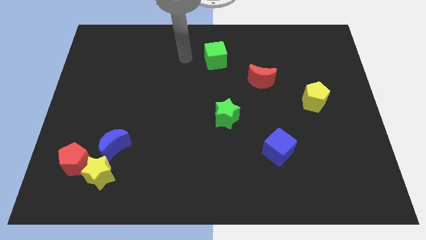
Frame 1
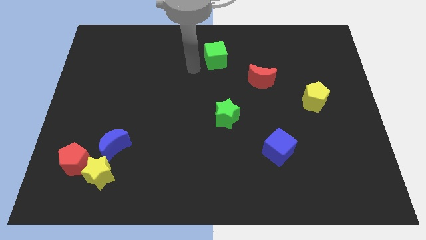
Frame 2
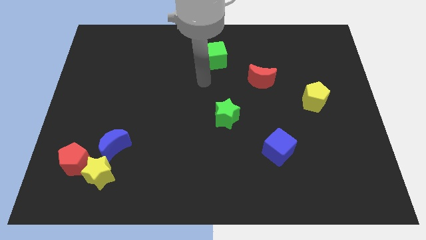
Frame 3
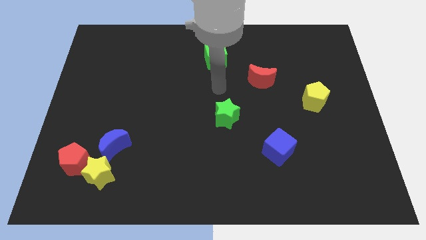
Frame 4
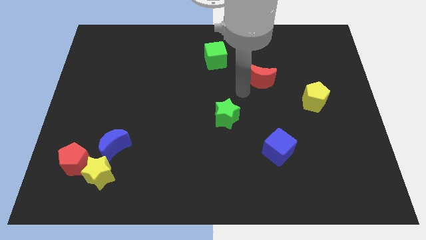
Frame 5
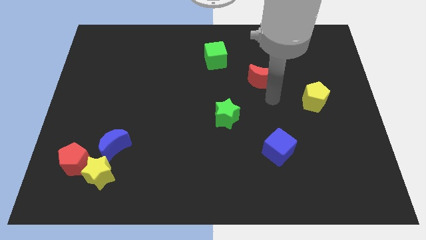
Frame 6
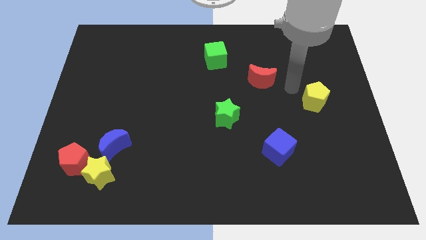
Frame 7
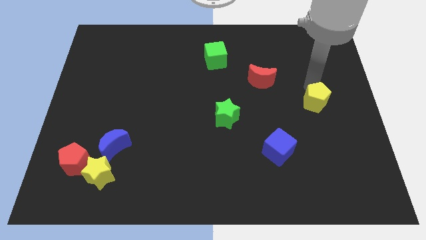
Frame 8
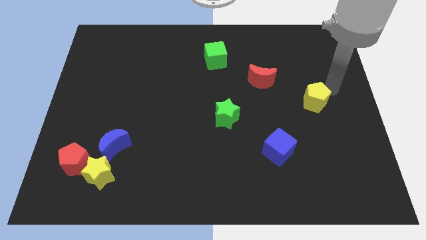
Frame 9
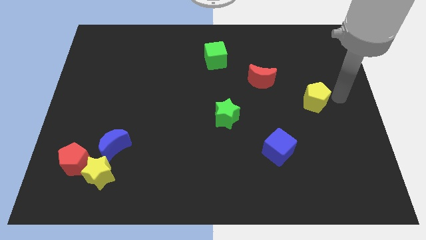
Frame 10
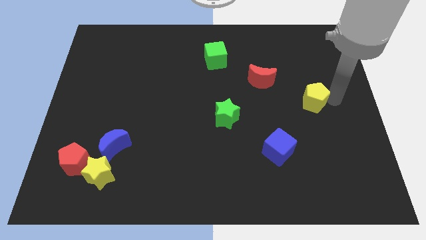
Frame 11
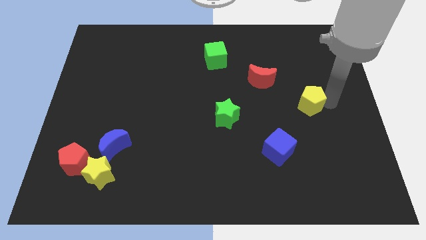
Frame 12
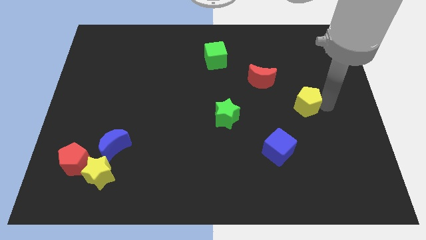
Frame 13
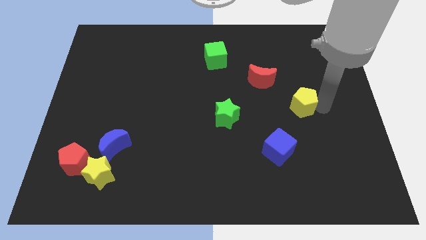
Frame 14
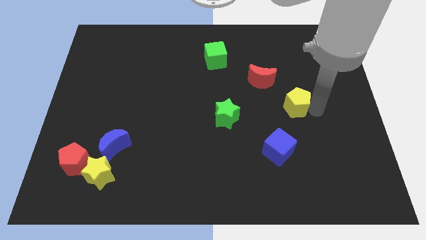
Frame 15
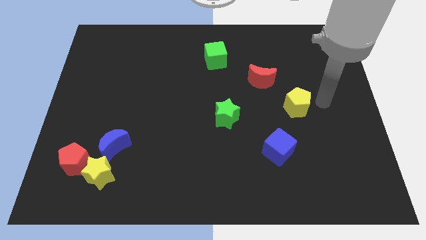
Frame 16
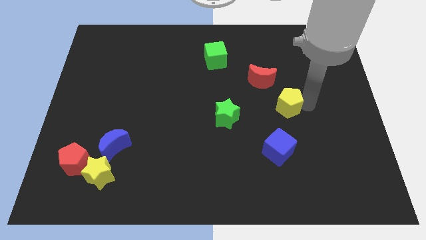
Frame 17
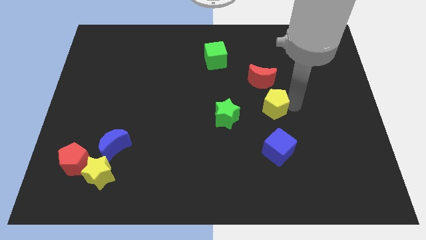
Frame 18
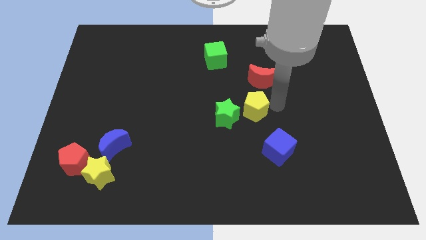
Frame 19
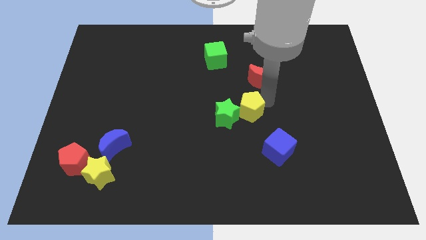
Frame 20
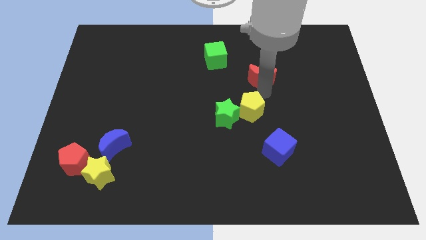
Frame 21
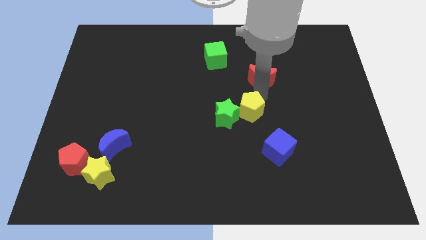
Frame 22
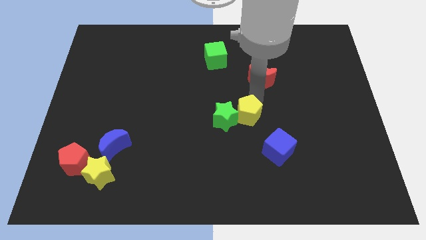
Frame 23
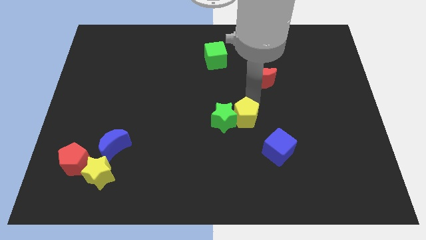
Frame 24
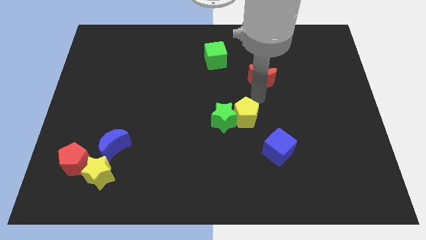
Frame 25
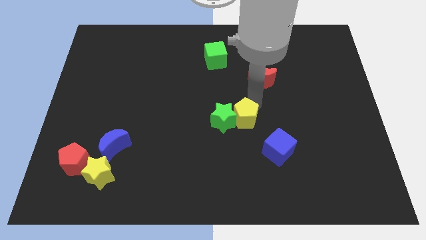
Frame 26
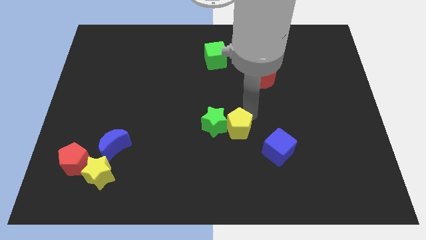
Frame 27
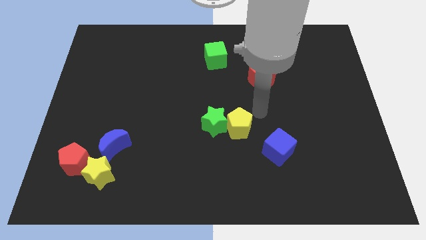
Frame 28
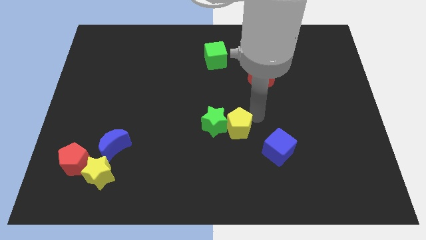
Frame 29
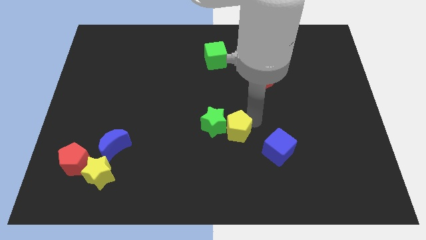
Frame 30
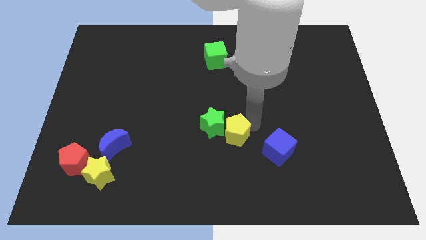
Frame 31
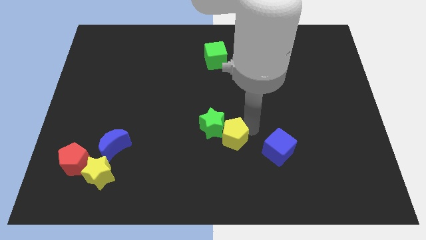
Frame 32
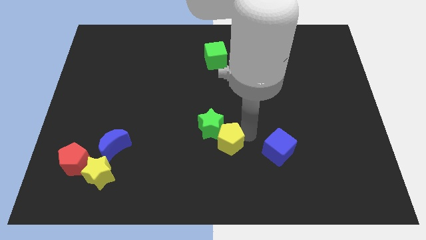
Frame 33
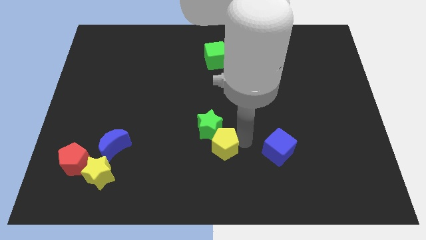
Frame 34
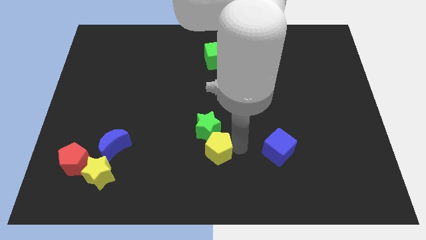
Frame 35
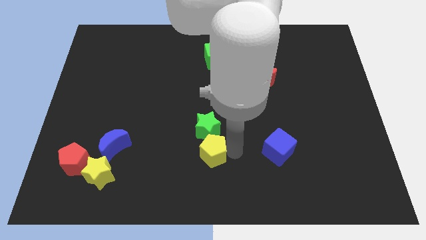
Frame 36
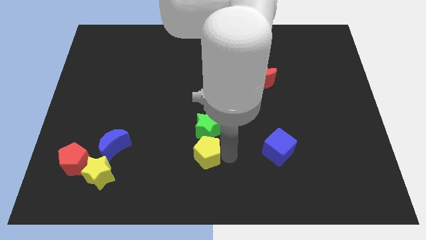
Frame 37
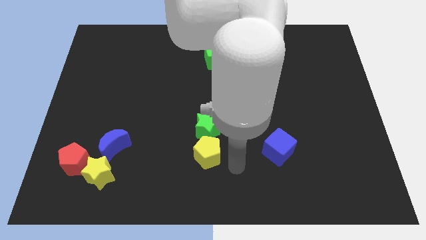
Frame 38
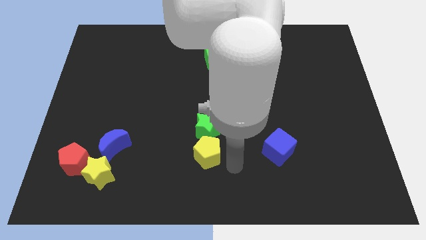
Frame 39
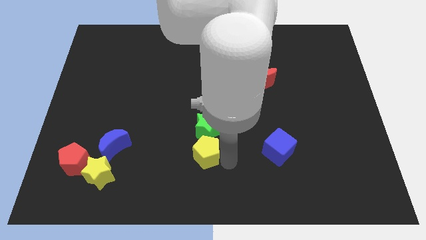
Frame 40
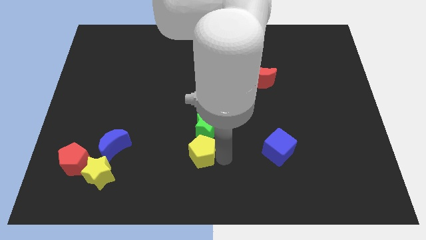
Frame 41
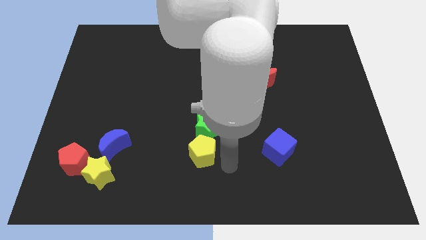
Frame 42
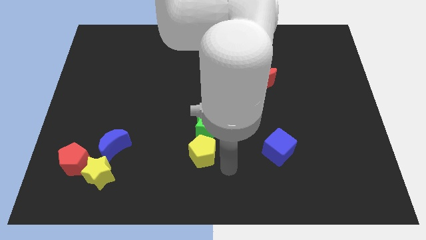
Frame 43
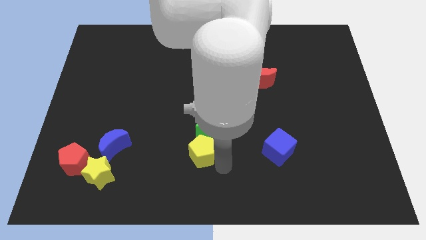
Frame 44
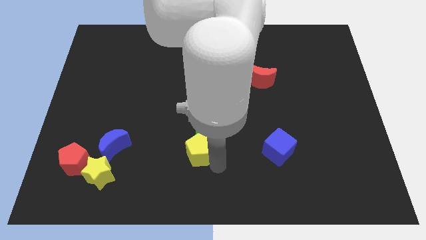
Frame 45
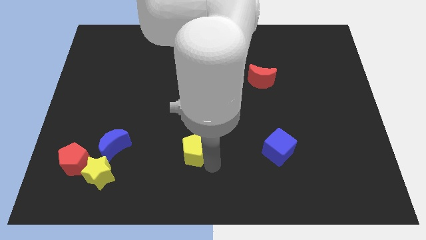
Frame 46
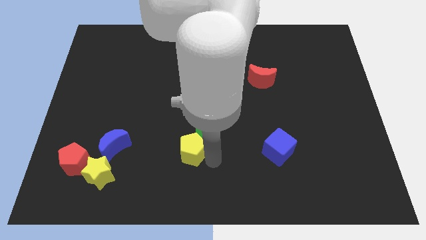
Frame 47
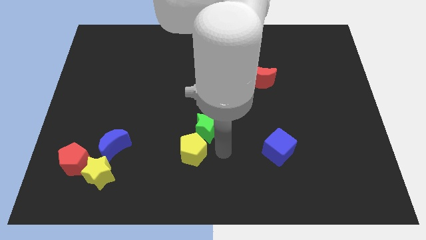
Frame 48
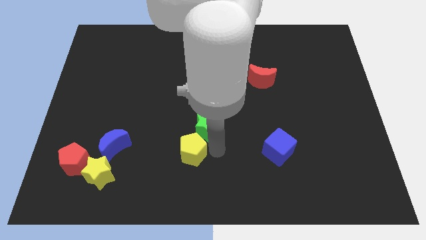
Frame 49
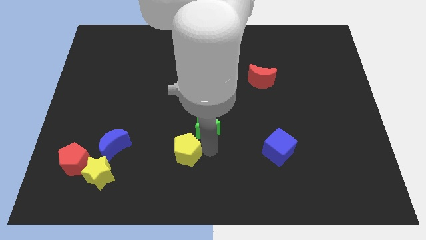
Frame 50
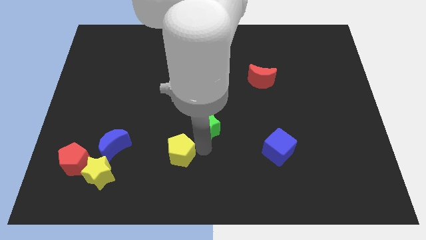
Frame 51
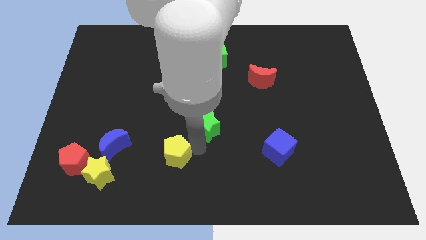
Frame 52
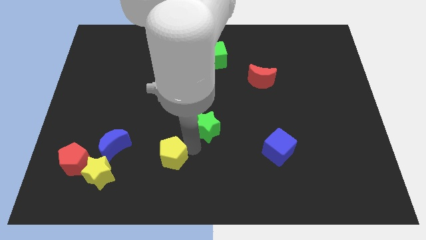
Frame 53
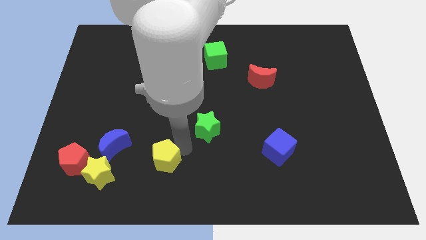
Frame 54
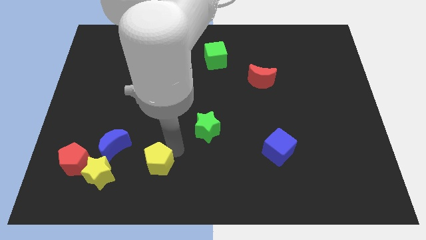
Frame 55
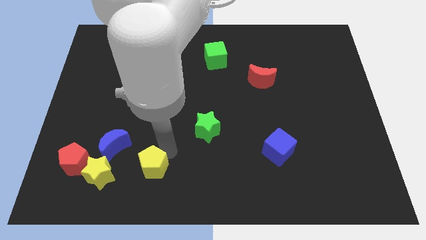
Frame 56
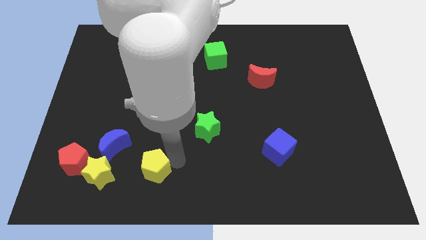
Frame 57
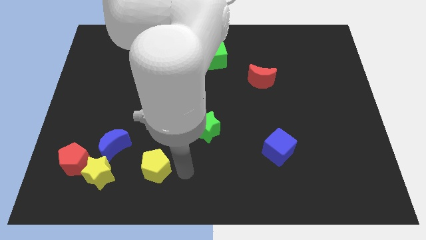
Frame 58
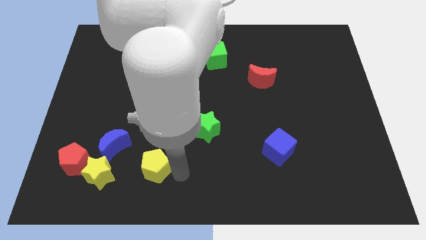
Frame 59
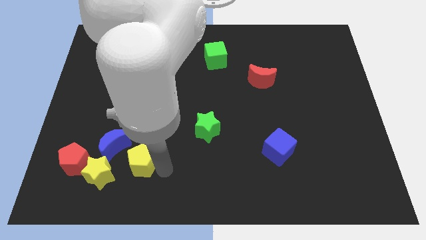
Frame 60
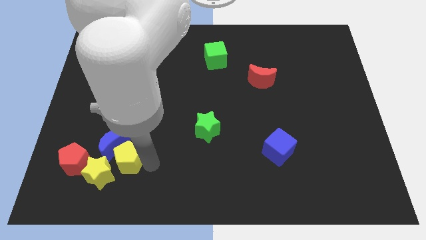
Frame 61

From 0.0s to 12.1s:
move the yellow pentagon close to the yellow star
